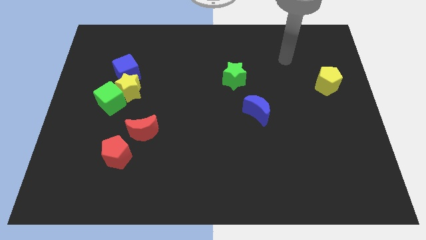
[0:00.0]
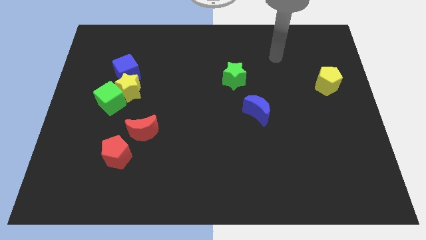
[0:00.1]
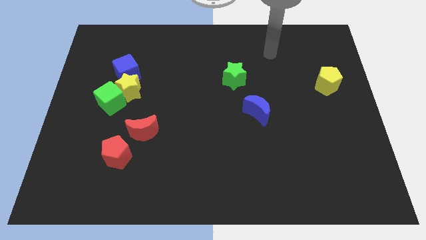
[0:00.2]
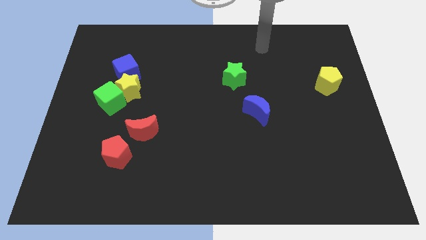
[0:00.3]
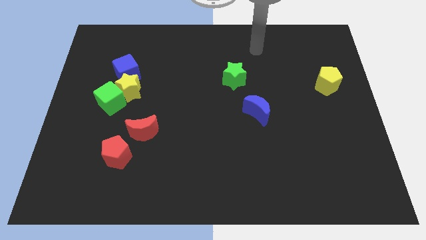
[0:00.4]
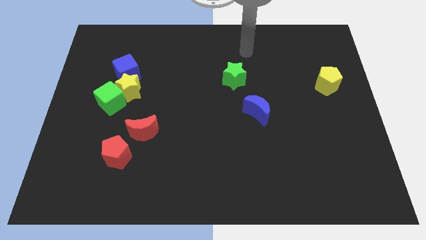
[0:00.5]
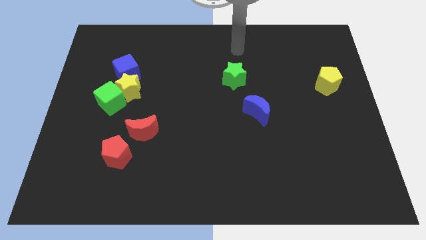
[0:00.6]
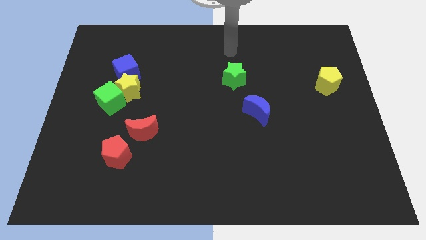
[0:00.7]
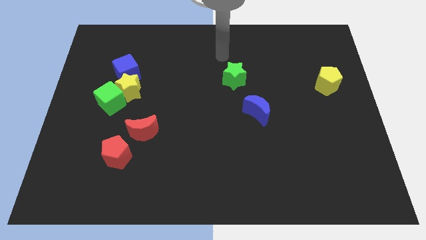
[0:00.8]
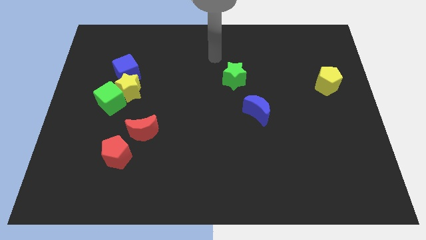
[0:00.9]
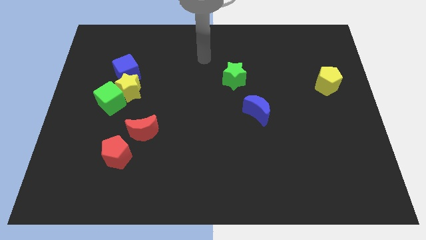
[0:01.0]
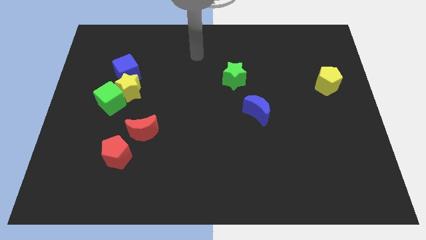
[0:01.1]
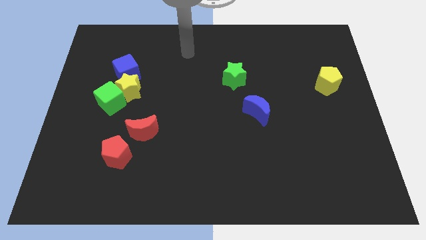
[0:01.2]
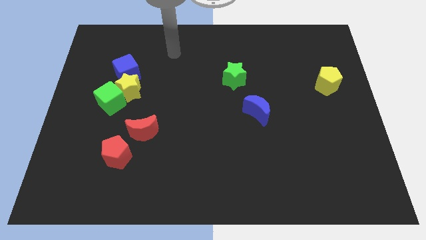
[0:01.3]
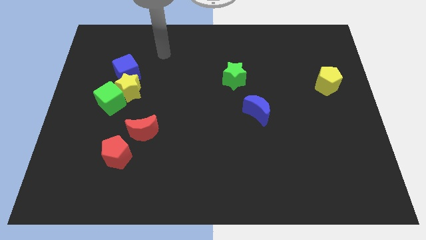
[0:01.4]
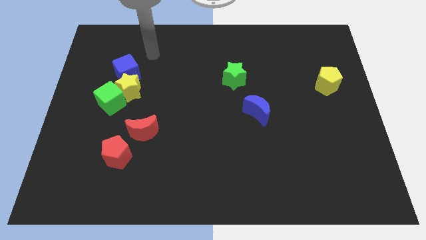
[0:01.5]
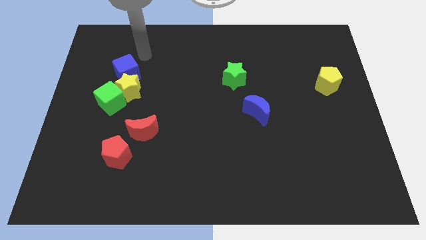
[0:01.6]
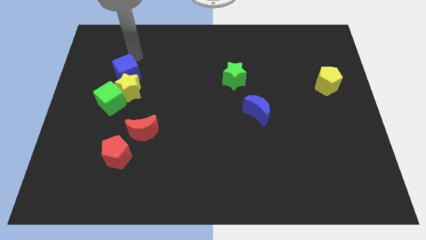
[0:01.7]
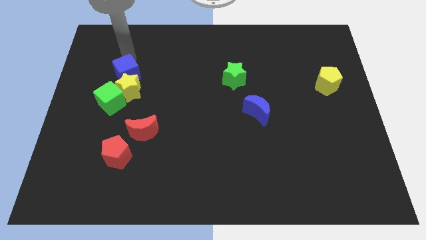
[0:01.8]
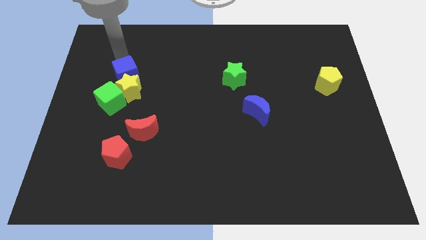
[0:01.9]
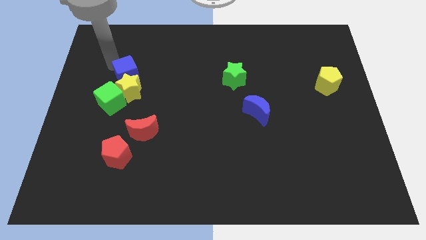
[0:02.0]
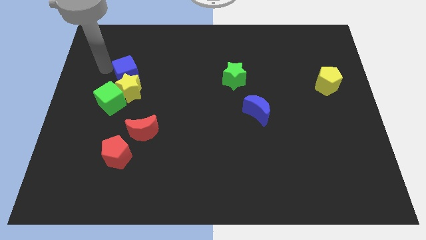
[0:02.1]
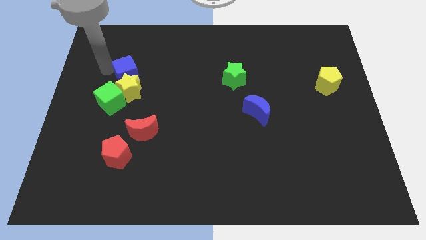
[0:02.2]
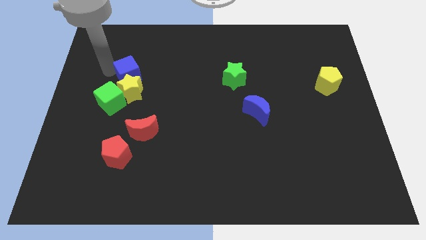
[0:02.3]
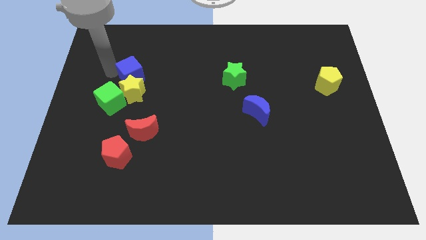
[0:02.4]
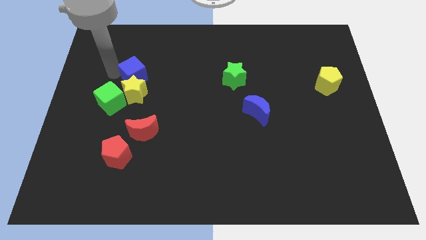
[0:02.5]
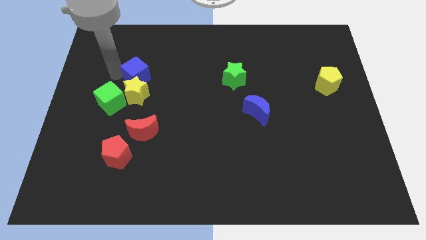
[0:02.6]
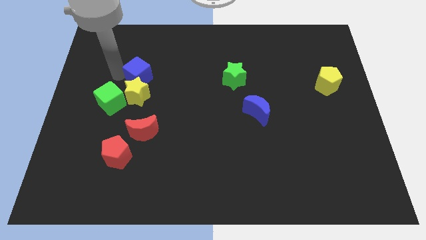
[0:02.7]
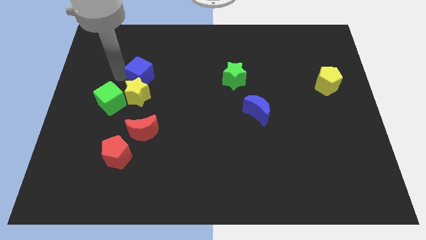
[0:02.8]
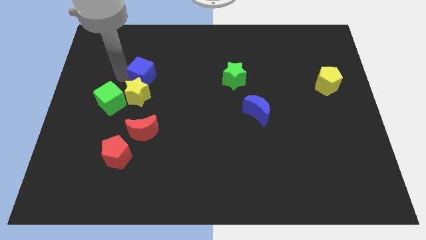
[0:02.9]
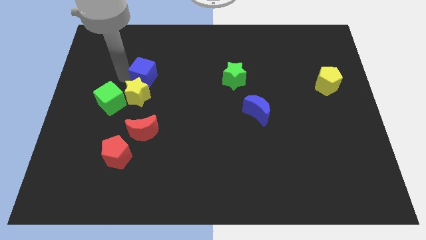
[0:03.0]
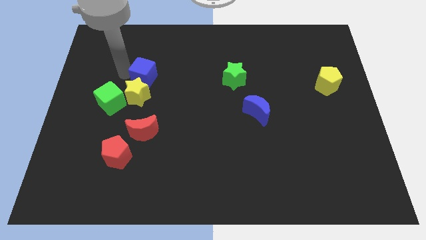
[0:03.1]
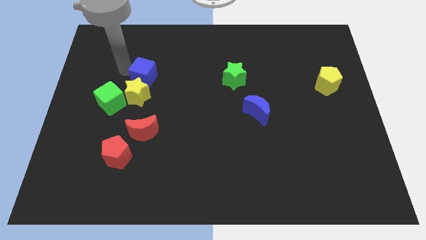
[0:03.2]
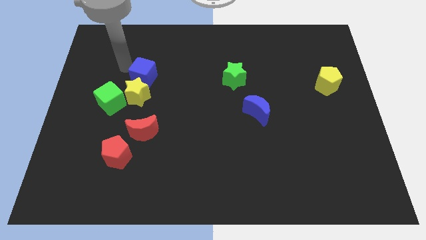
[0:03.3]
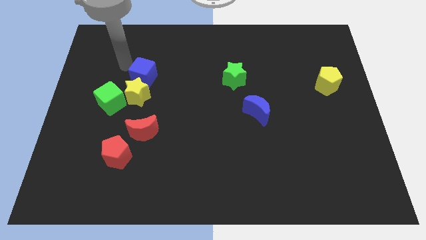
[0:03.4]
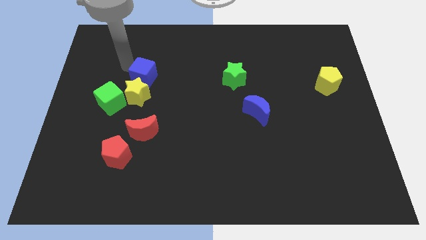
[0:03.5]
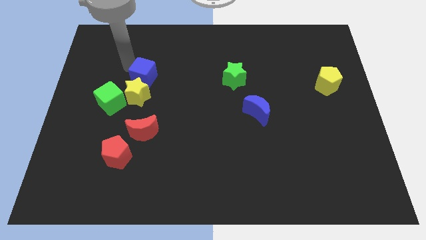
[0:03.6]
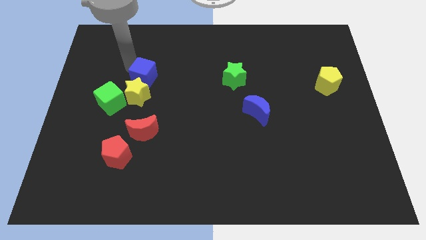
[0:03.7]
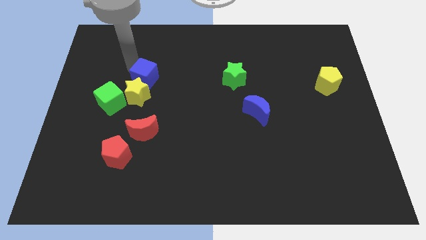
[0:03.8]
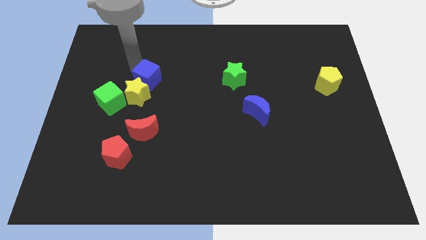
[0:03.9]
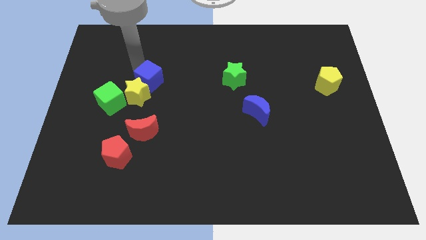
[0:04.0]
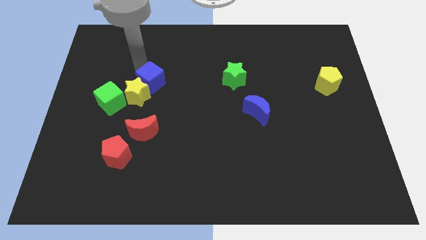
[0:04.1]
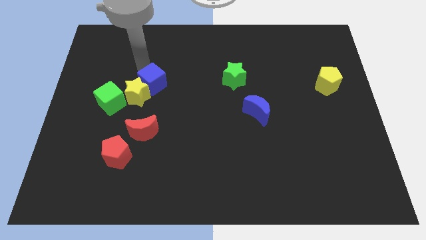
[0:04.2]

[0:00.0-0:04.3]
slightly push the blue cube downwards and right diagonally

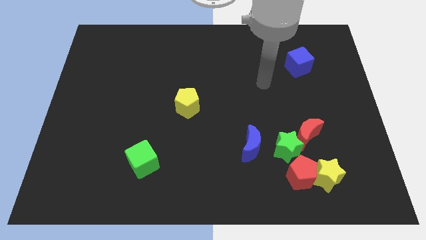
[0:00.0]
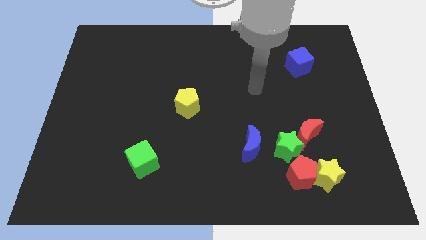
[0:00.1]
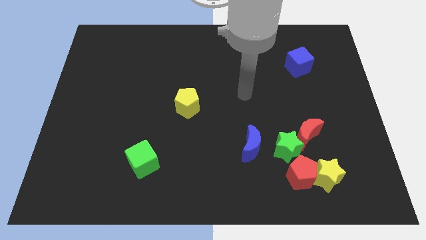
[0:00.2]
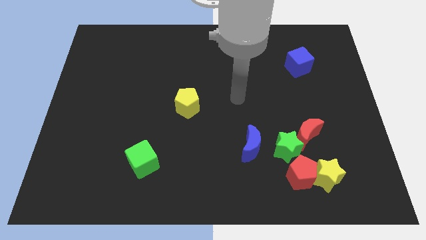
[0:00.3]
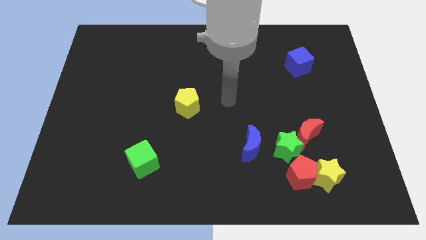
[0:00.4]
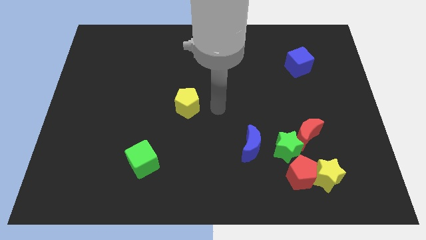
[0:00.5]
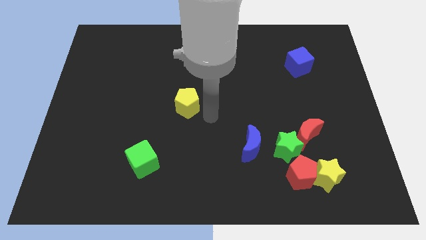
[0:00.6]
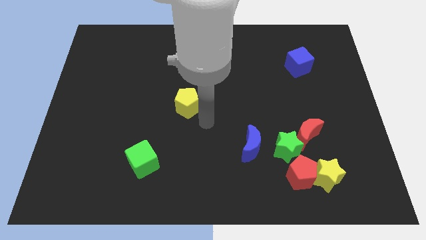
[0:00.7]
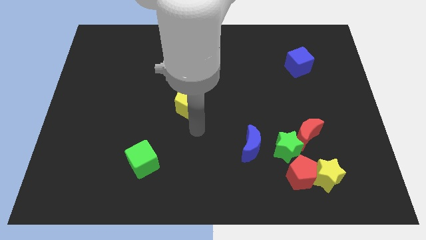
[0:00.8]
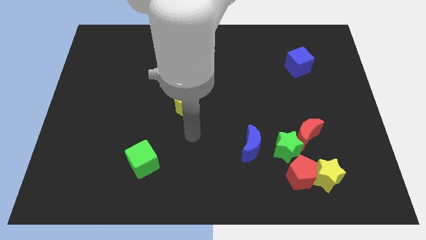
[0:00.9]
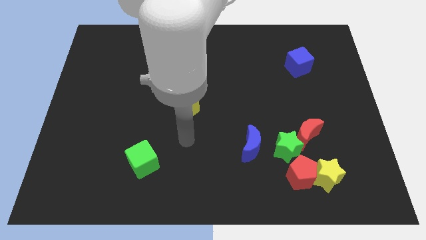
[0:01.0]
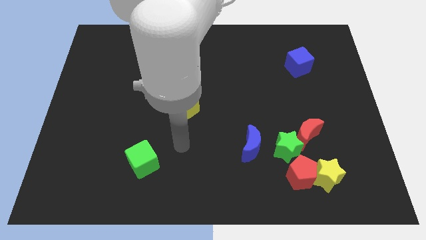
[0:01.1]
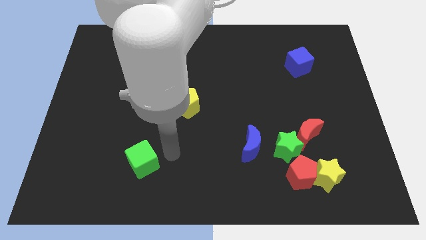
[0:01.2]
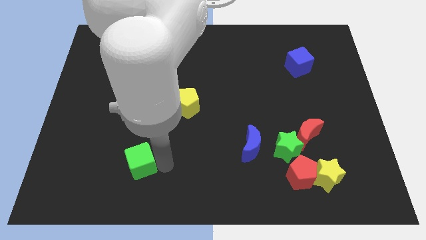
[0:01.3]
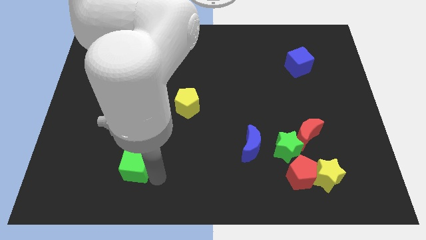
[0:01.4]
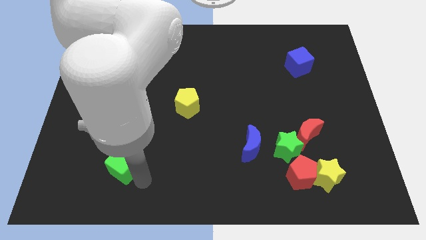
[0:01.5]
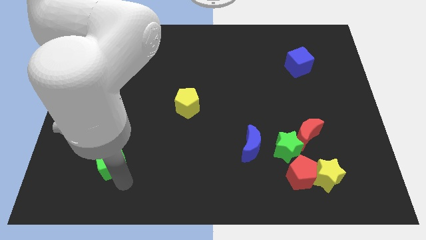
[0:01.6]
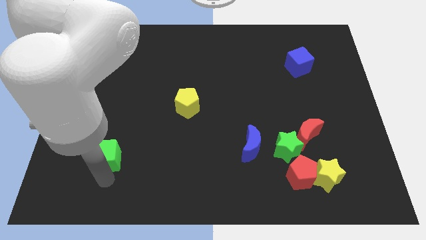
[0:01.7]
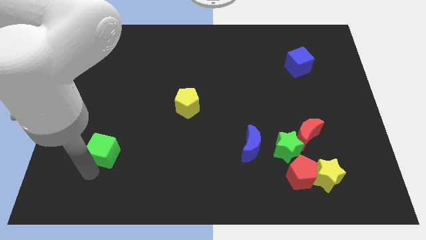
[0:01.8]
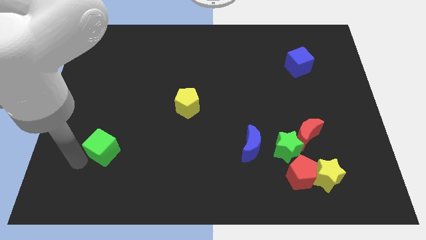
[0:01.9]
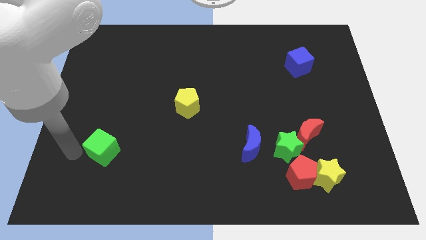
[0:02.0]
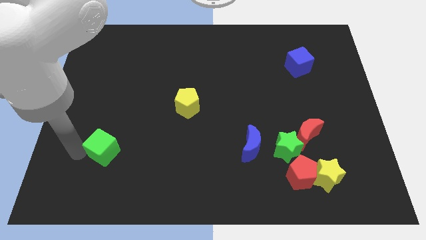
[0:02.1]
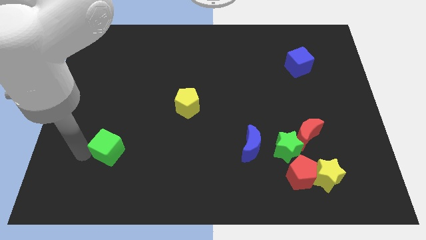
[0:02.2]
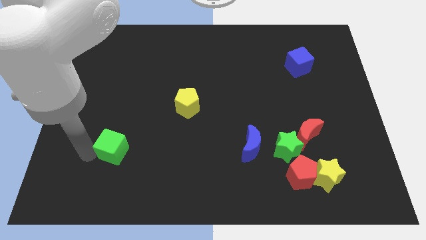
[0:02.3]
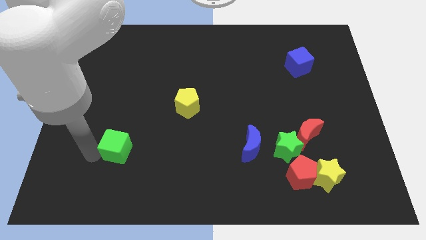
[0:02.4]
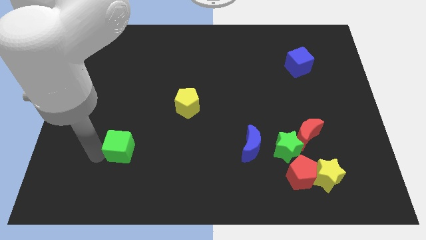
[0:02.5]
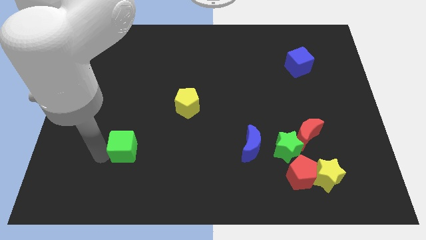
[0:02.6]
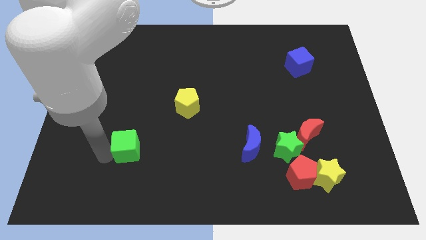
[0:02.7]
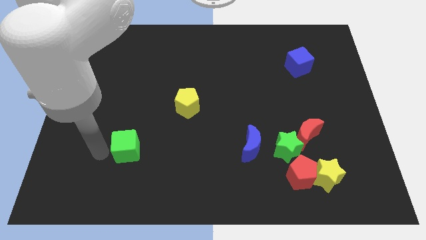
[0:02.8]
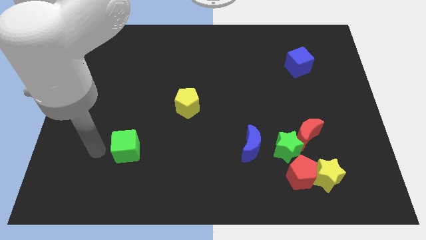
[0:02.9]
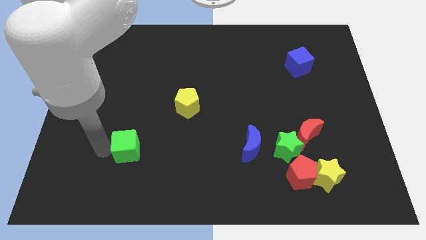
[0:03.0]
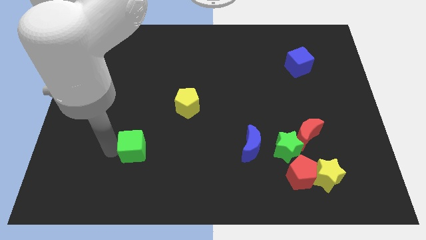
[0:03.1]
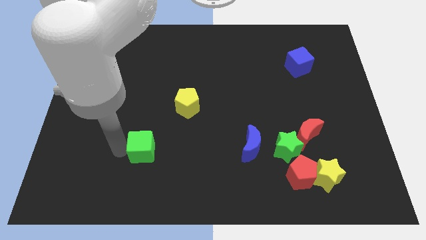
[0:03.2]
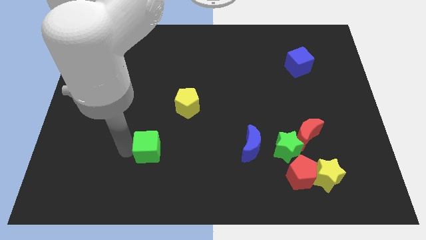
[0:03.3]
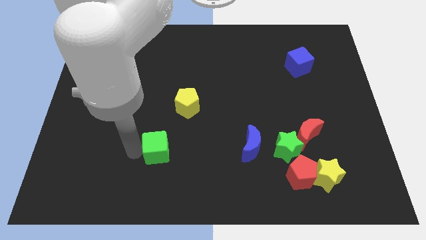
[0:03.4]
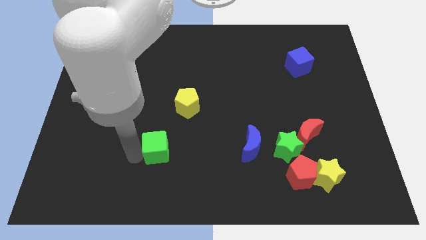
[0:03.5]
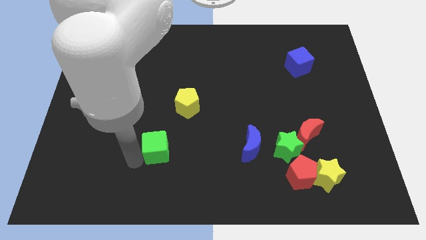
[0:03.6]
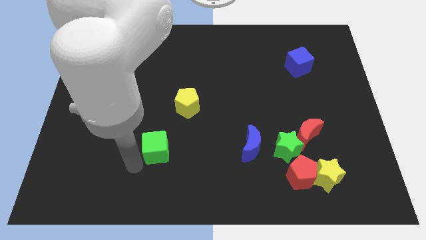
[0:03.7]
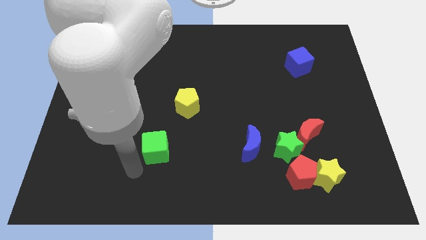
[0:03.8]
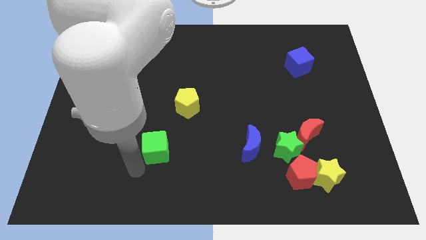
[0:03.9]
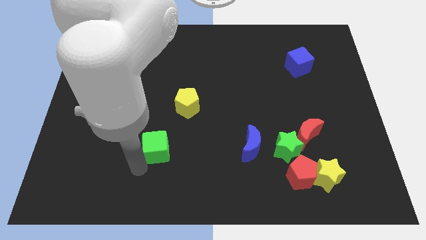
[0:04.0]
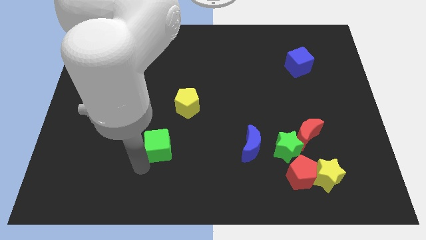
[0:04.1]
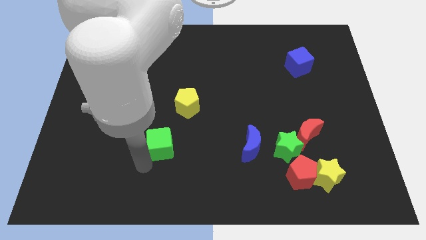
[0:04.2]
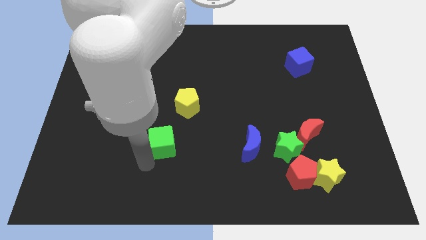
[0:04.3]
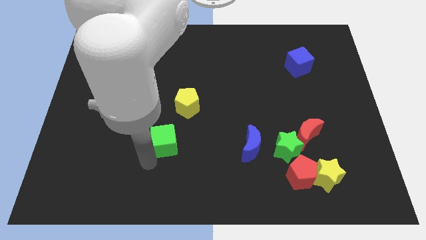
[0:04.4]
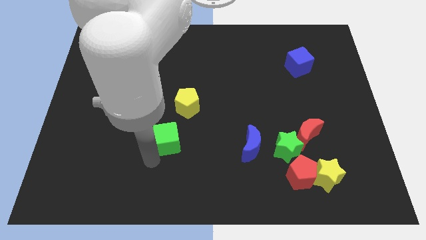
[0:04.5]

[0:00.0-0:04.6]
move the green cube slightly up and to the right diagonally
